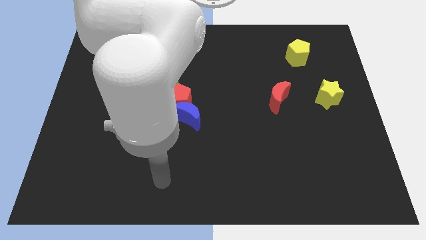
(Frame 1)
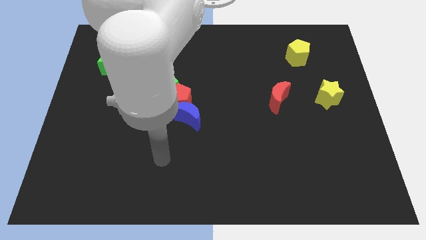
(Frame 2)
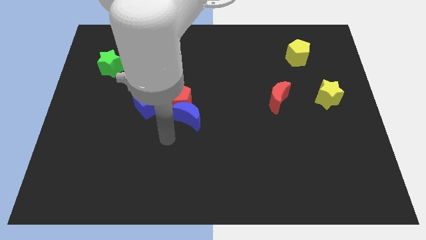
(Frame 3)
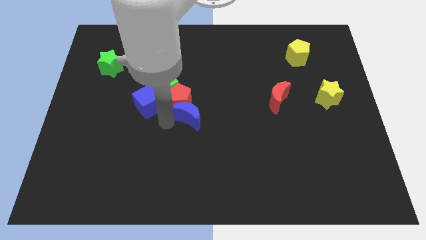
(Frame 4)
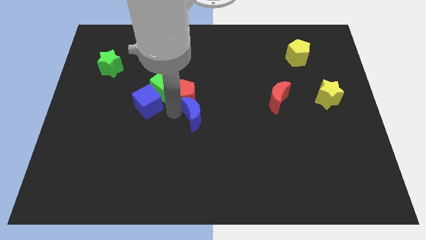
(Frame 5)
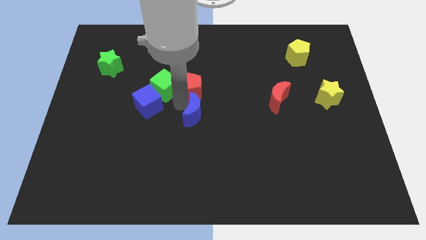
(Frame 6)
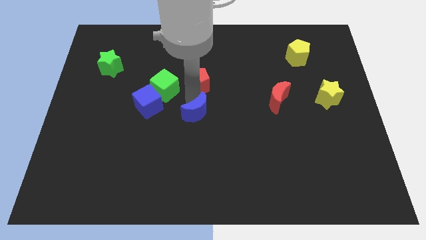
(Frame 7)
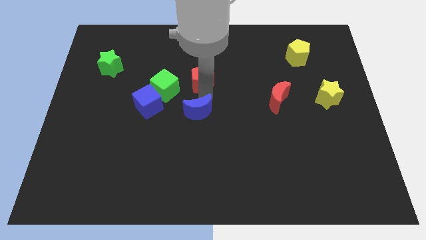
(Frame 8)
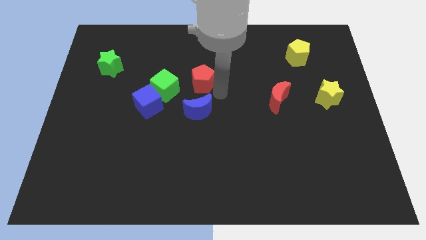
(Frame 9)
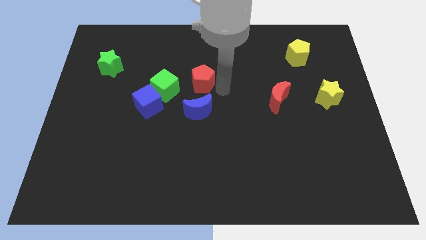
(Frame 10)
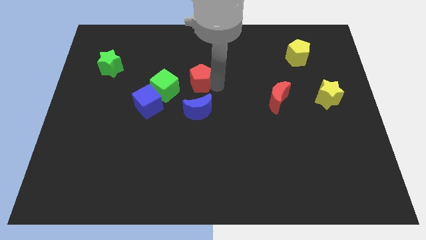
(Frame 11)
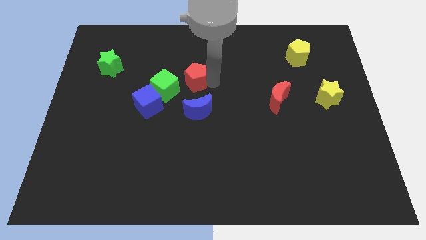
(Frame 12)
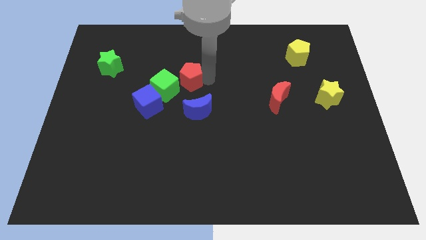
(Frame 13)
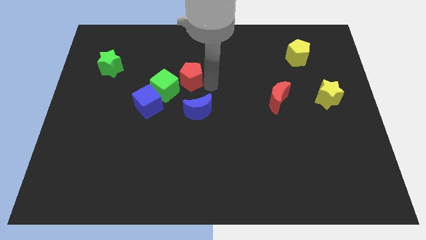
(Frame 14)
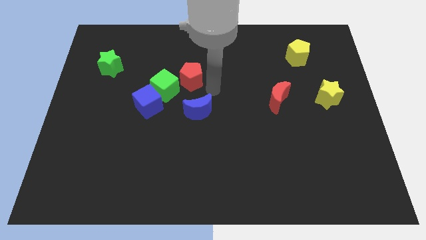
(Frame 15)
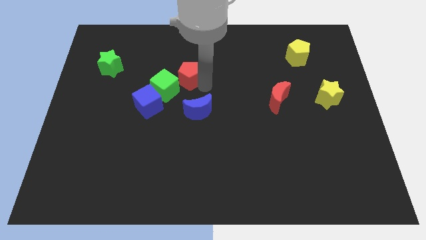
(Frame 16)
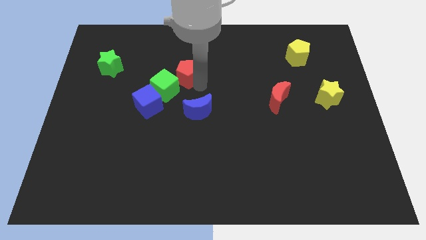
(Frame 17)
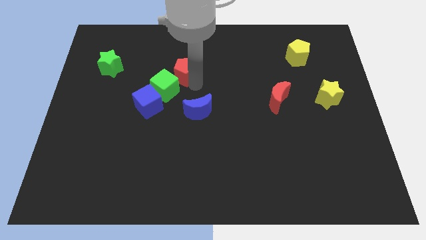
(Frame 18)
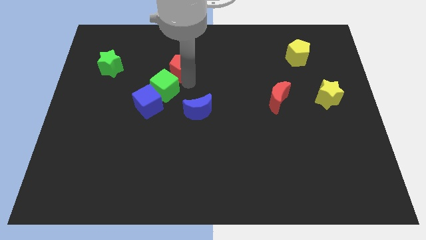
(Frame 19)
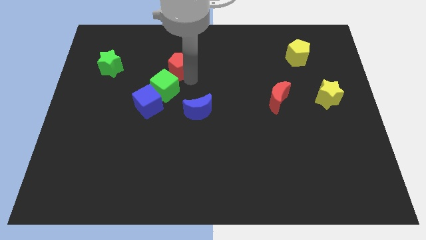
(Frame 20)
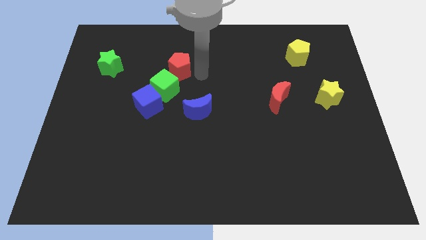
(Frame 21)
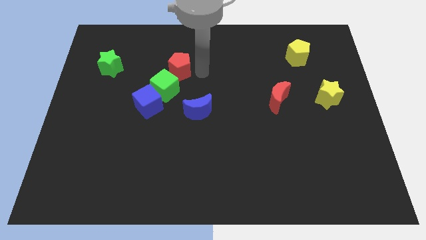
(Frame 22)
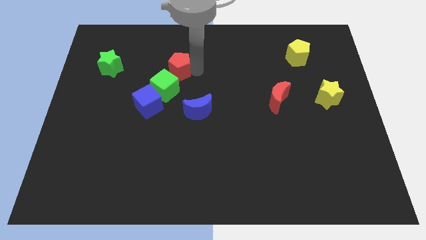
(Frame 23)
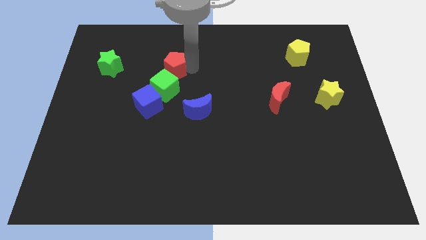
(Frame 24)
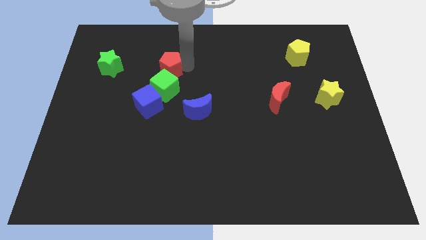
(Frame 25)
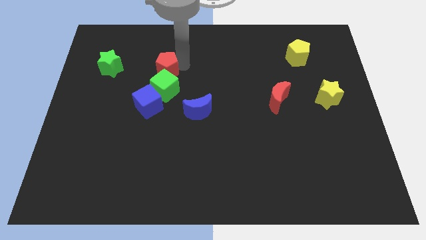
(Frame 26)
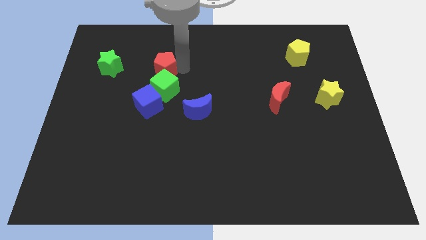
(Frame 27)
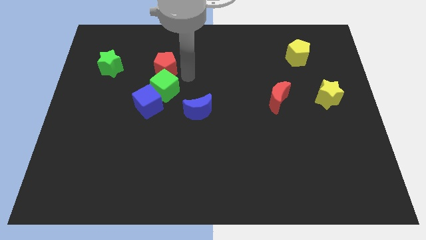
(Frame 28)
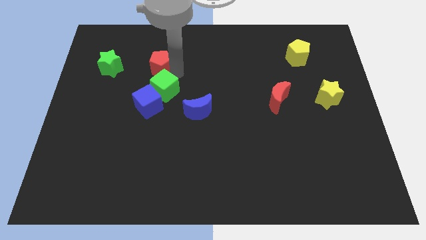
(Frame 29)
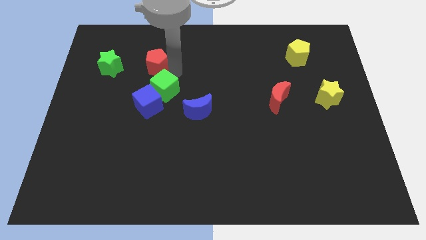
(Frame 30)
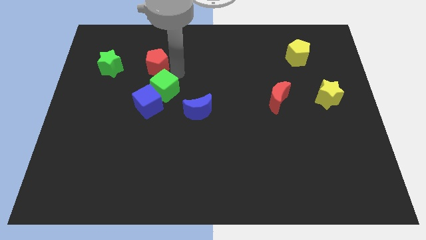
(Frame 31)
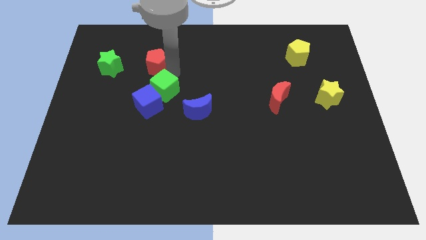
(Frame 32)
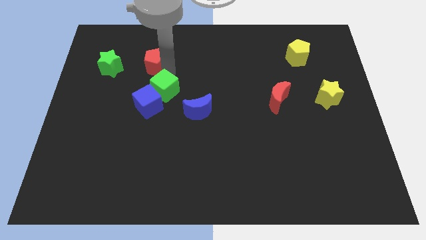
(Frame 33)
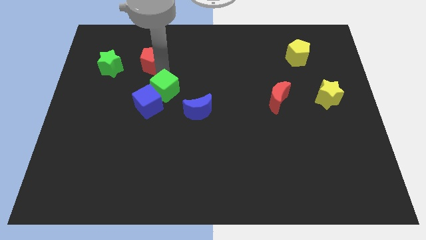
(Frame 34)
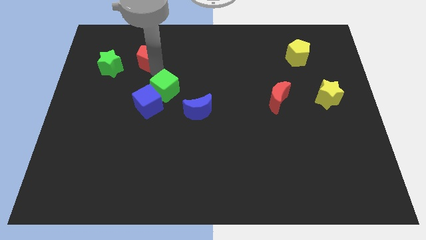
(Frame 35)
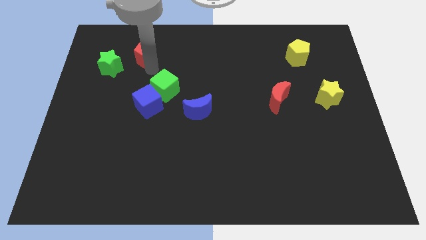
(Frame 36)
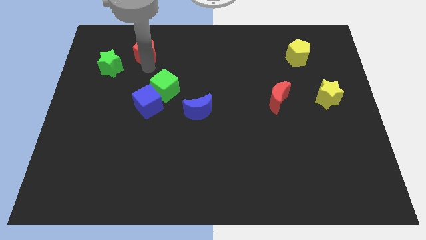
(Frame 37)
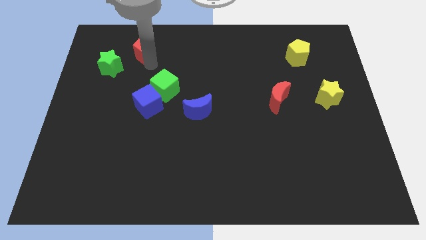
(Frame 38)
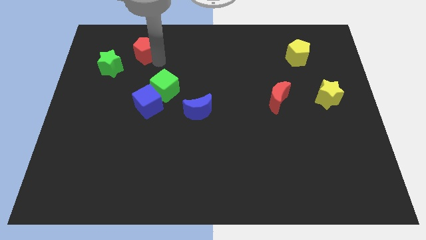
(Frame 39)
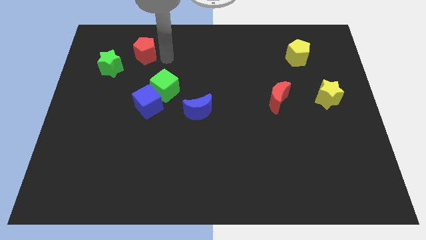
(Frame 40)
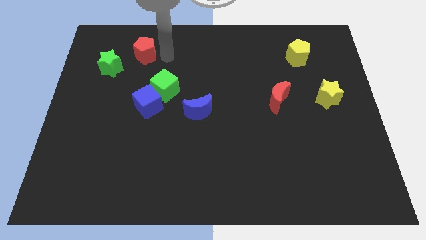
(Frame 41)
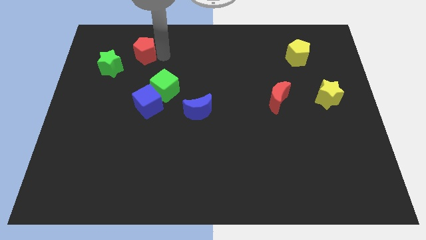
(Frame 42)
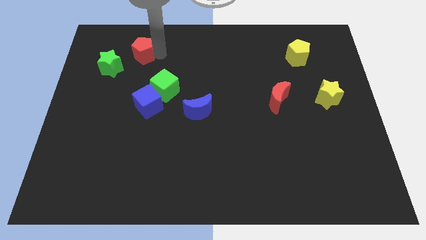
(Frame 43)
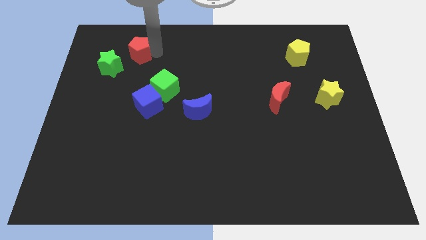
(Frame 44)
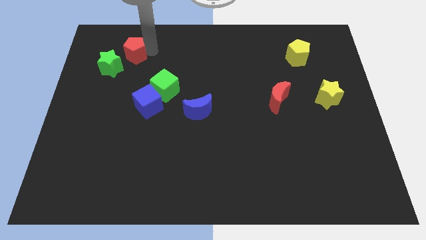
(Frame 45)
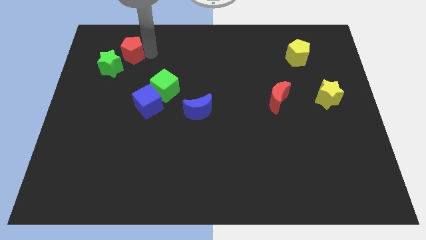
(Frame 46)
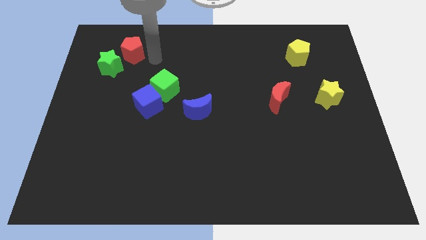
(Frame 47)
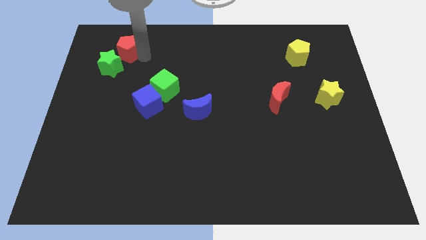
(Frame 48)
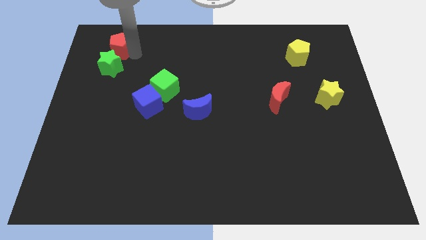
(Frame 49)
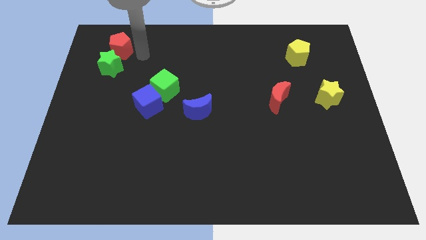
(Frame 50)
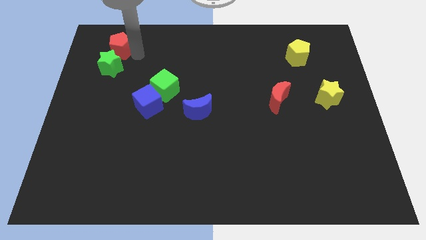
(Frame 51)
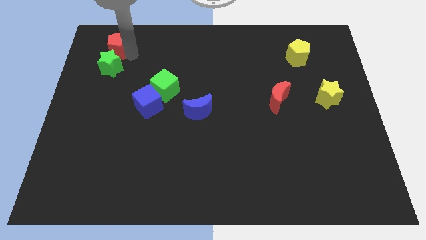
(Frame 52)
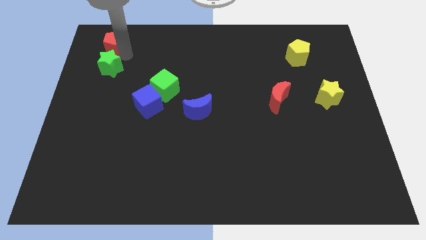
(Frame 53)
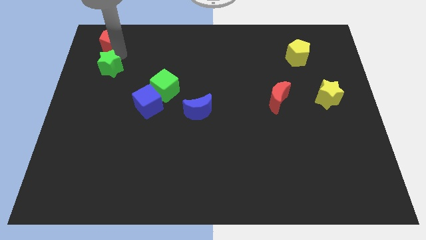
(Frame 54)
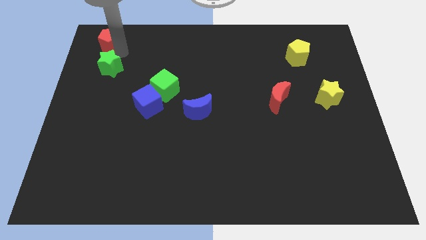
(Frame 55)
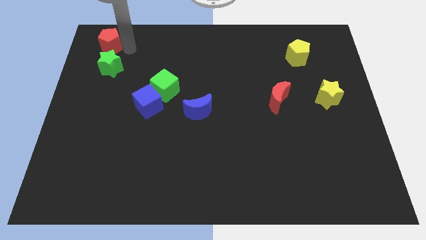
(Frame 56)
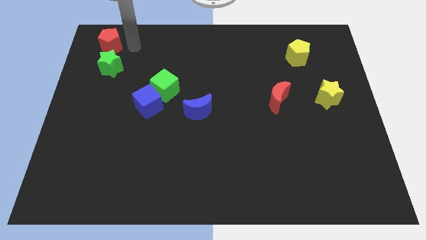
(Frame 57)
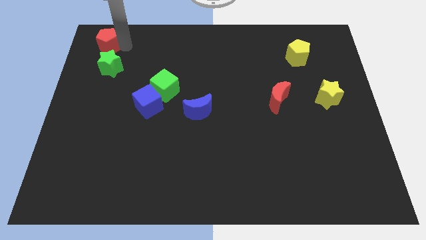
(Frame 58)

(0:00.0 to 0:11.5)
slide the red pentagon to the top left

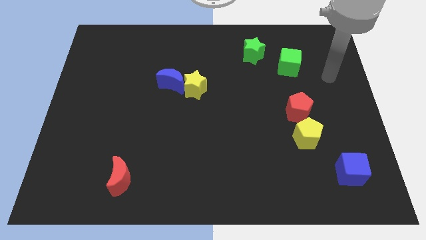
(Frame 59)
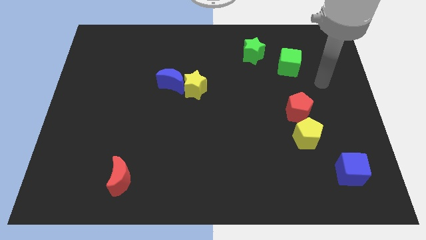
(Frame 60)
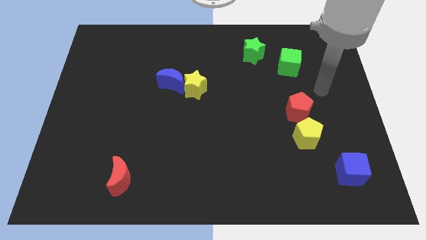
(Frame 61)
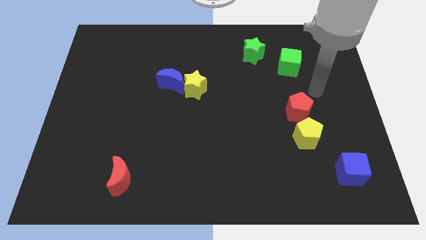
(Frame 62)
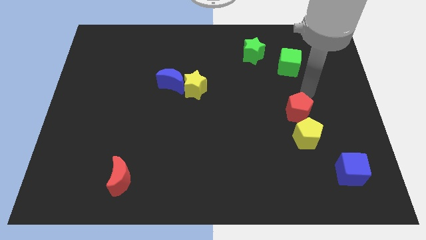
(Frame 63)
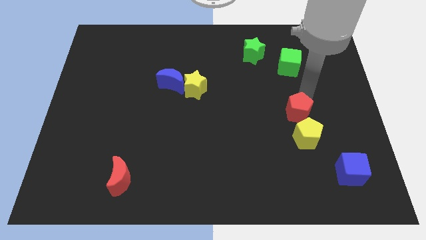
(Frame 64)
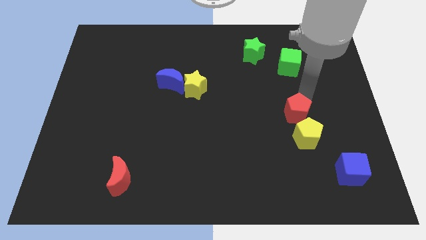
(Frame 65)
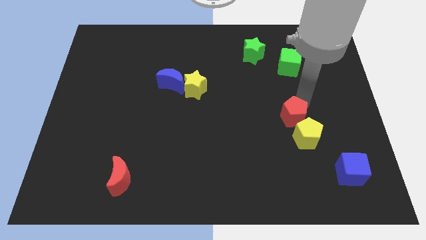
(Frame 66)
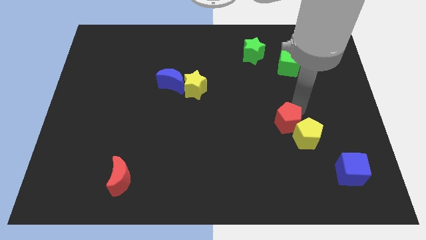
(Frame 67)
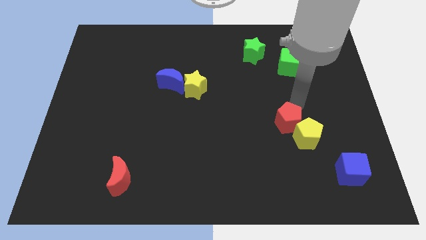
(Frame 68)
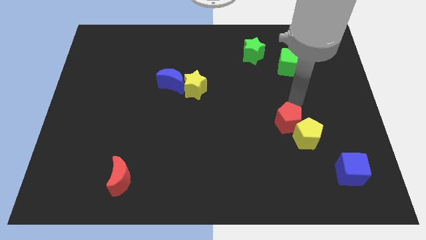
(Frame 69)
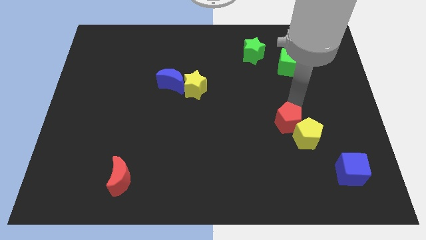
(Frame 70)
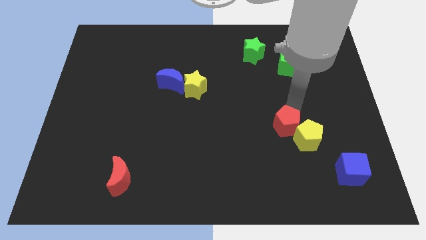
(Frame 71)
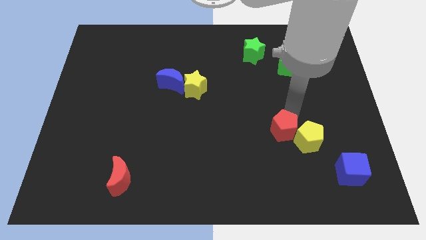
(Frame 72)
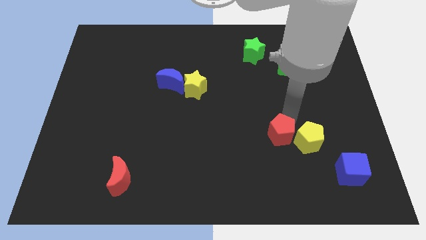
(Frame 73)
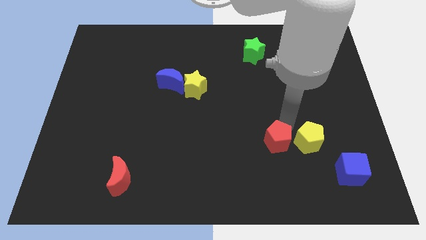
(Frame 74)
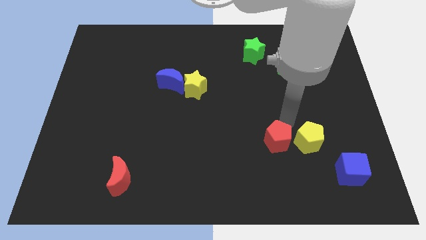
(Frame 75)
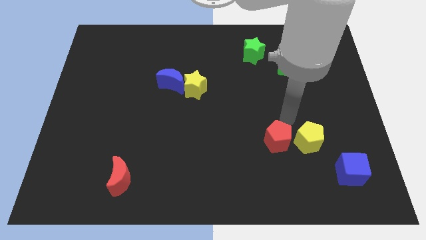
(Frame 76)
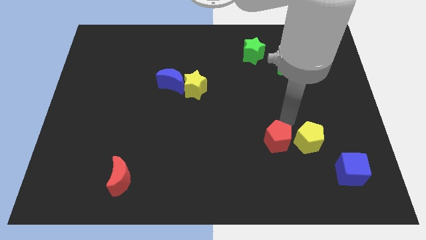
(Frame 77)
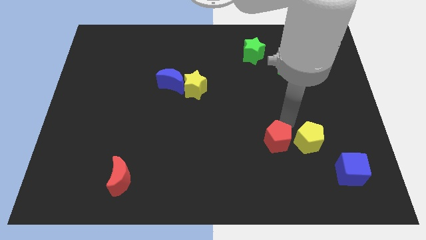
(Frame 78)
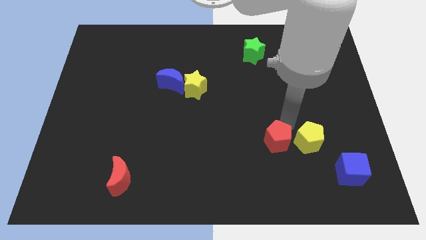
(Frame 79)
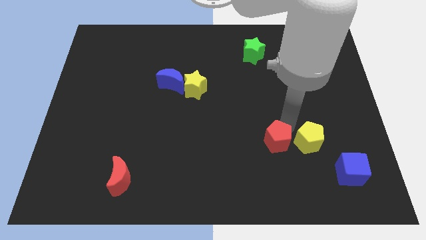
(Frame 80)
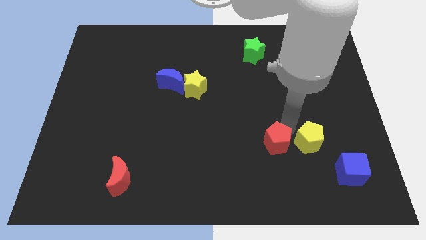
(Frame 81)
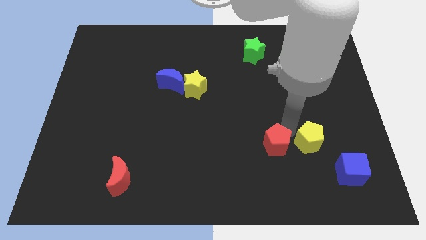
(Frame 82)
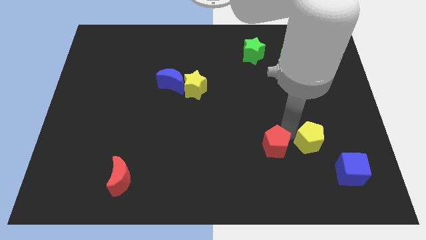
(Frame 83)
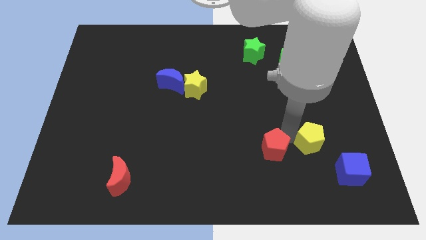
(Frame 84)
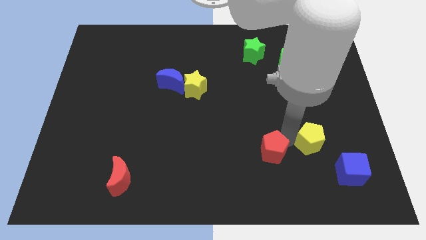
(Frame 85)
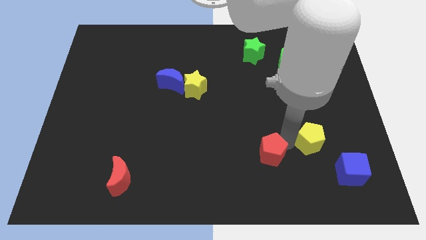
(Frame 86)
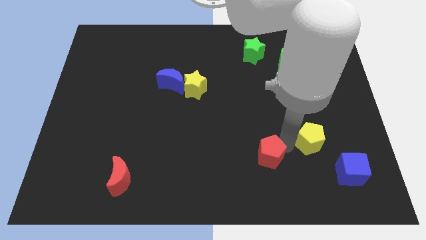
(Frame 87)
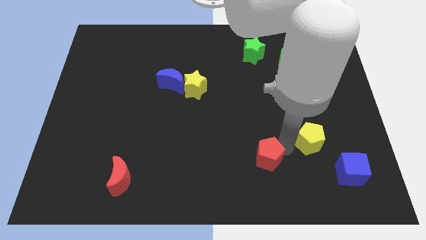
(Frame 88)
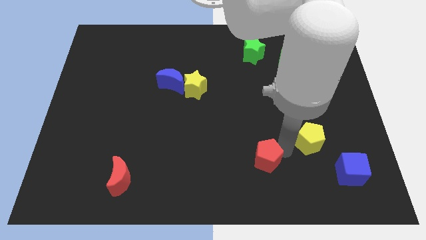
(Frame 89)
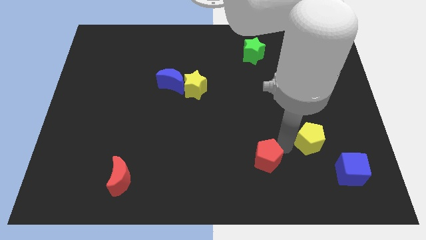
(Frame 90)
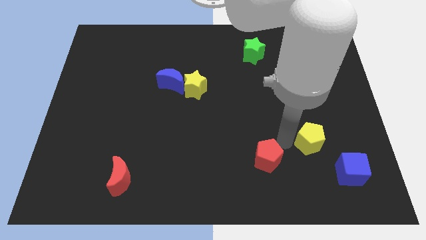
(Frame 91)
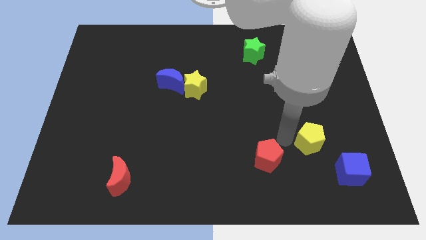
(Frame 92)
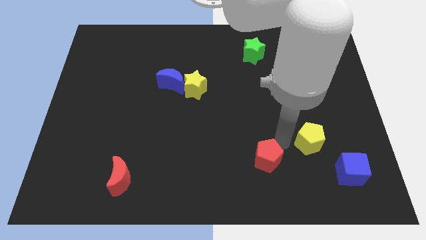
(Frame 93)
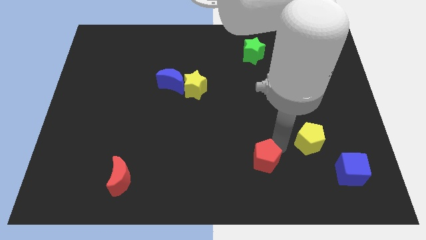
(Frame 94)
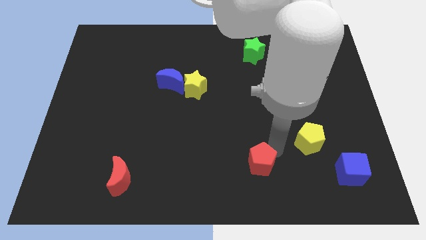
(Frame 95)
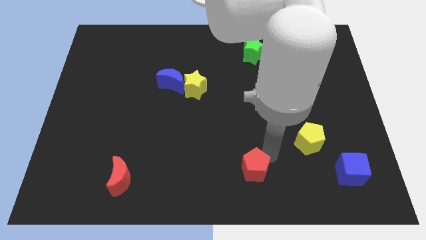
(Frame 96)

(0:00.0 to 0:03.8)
slide the red pentagon to the bottom
